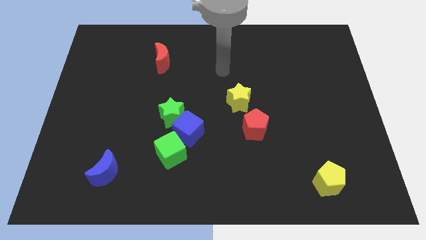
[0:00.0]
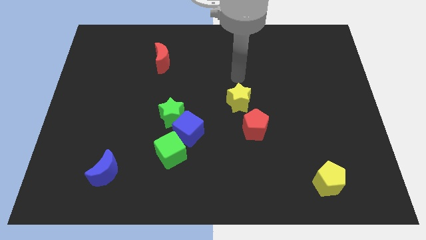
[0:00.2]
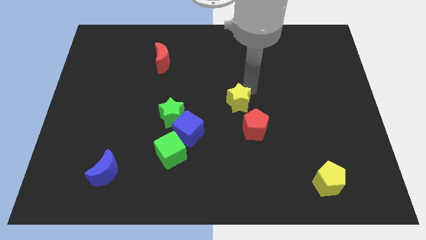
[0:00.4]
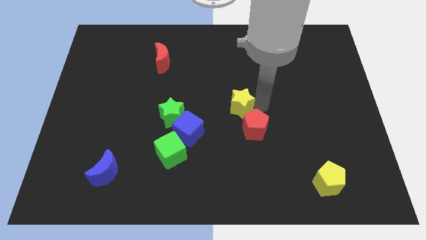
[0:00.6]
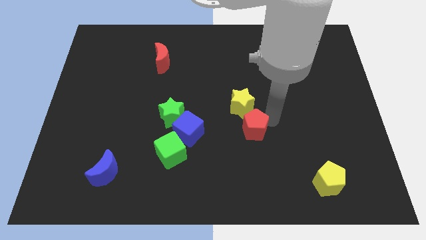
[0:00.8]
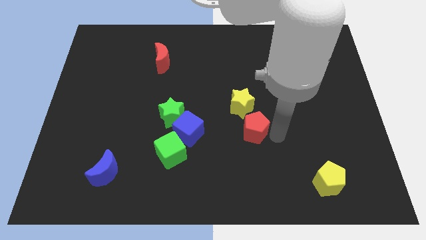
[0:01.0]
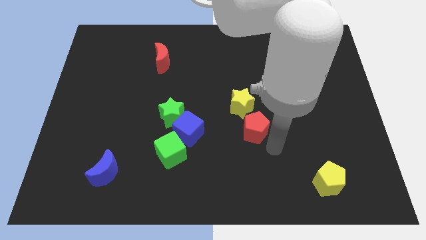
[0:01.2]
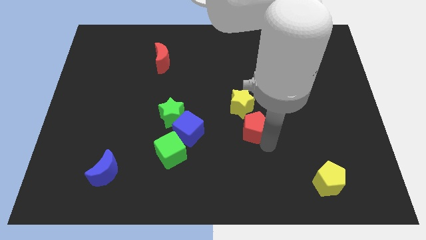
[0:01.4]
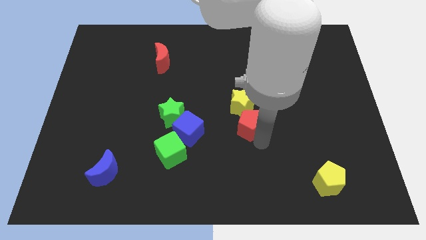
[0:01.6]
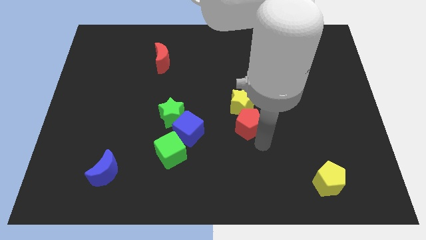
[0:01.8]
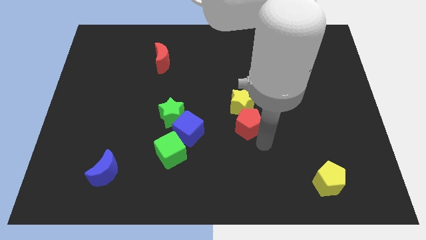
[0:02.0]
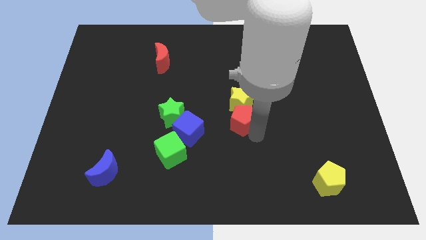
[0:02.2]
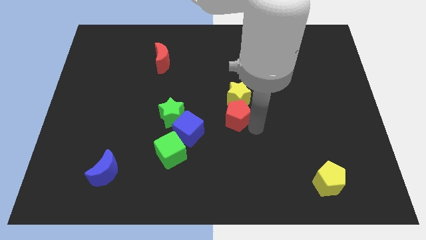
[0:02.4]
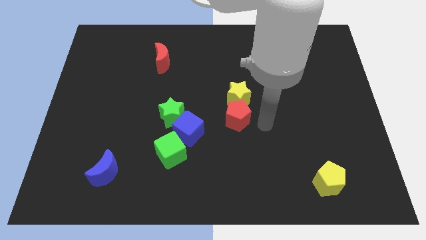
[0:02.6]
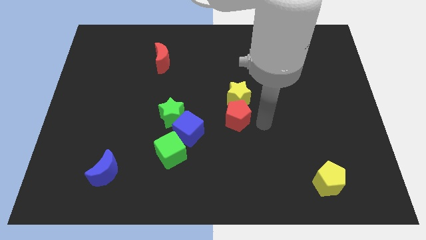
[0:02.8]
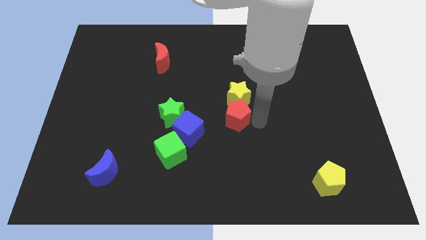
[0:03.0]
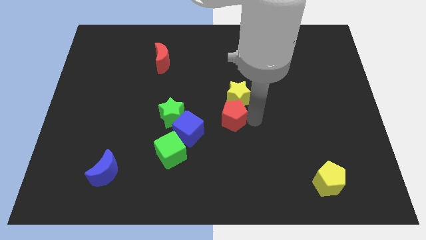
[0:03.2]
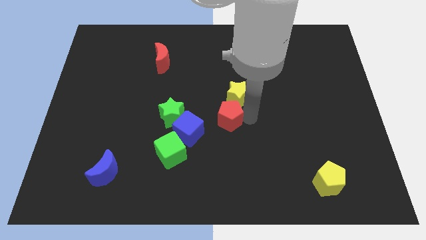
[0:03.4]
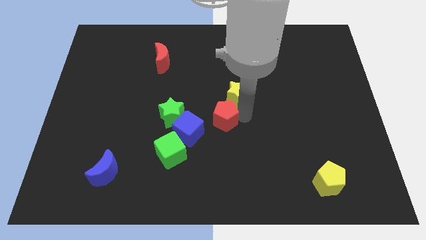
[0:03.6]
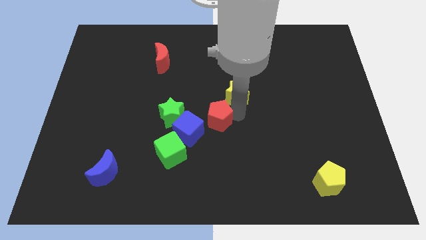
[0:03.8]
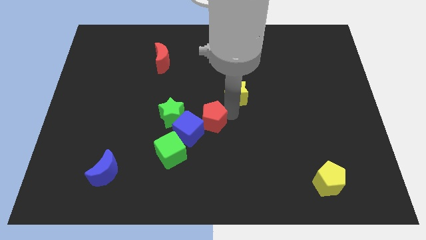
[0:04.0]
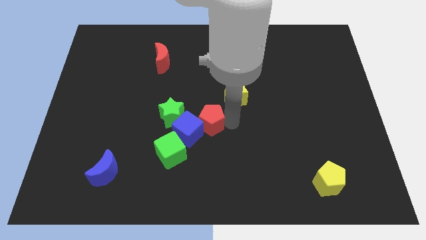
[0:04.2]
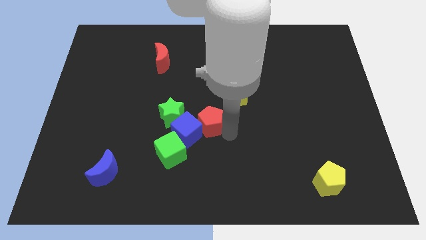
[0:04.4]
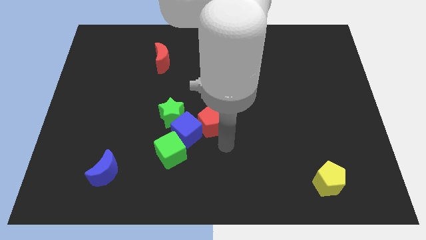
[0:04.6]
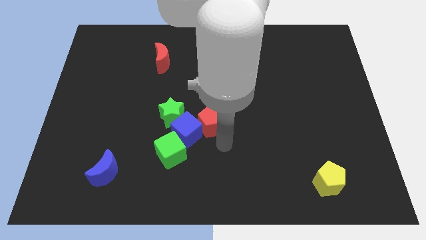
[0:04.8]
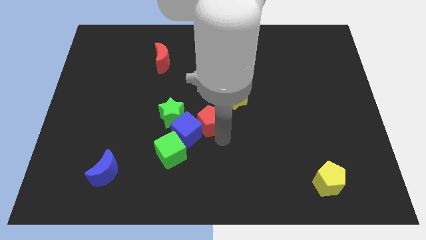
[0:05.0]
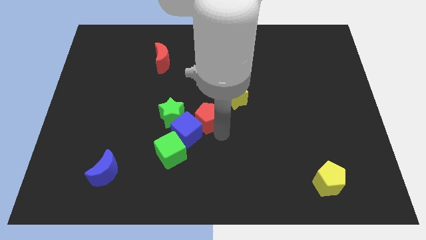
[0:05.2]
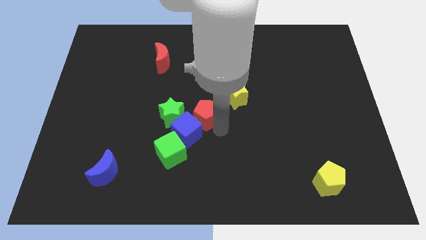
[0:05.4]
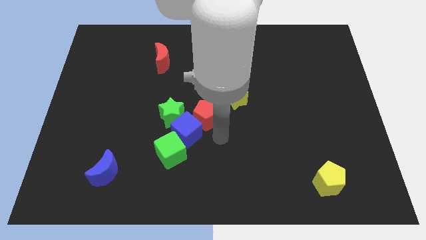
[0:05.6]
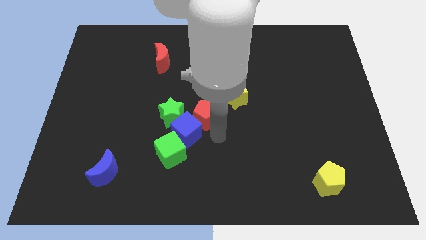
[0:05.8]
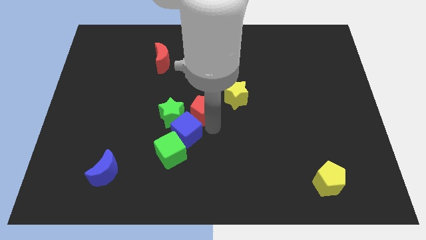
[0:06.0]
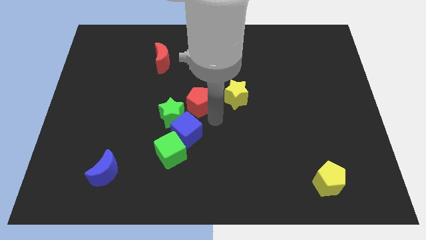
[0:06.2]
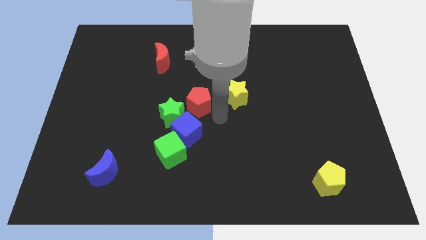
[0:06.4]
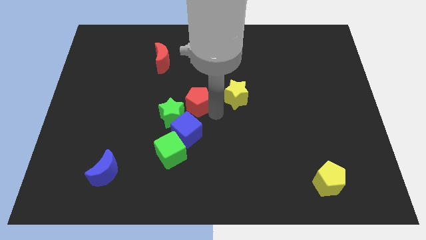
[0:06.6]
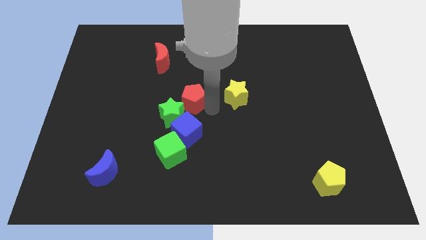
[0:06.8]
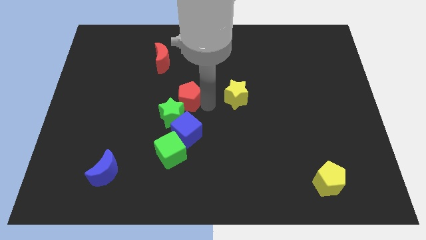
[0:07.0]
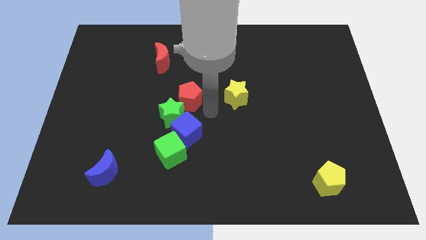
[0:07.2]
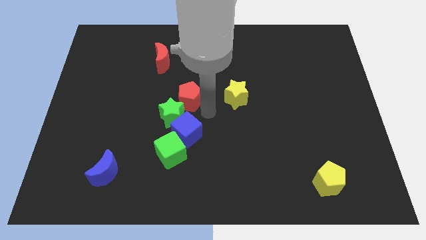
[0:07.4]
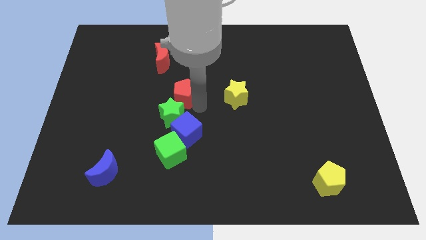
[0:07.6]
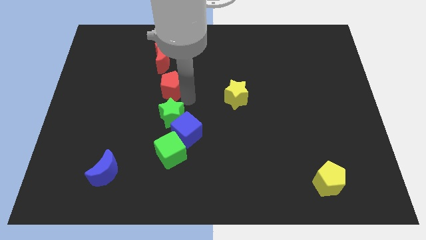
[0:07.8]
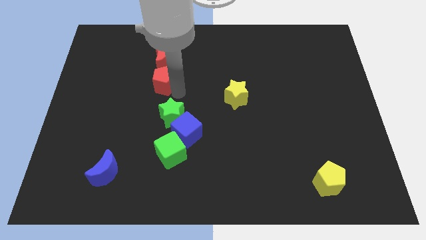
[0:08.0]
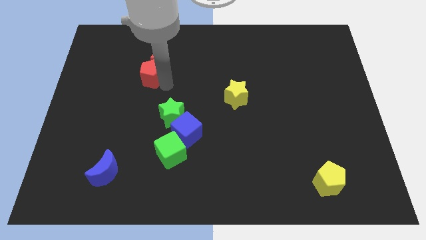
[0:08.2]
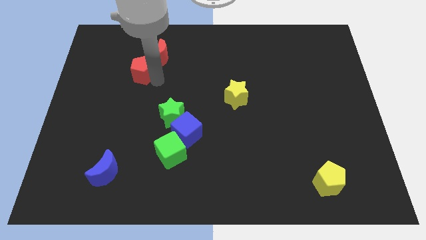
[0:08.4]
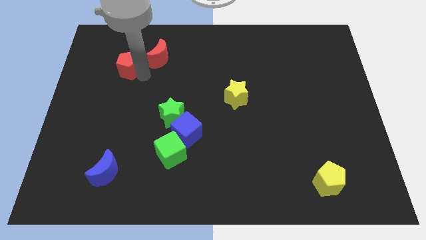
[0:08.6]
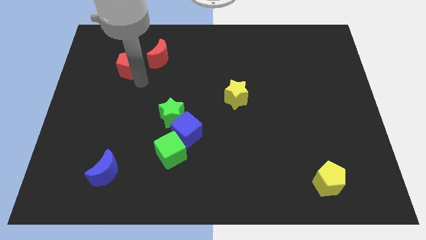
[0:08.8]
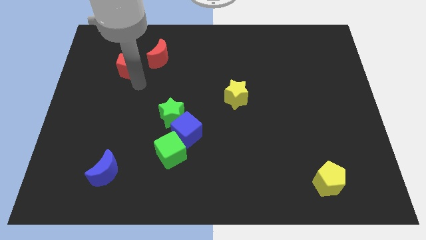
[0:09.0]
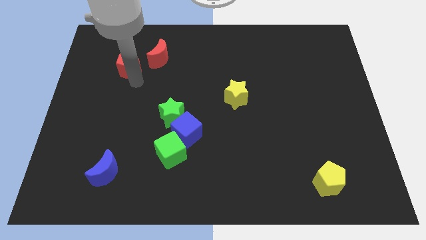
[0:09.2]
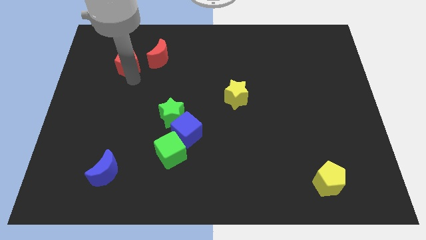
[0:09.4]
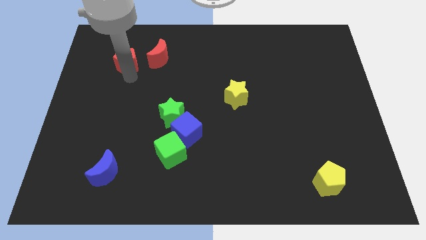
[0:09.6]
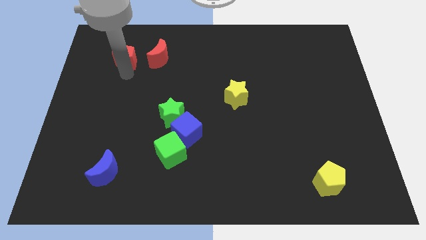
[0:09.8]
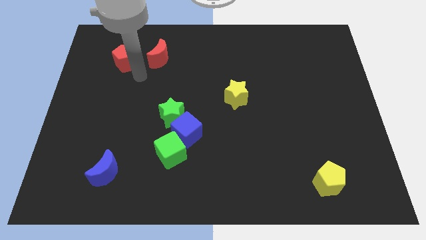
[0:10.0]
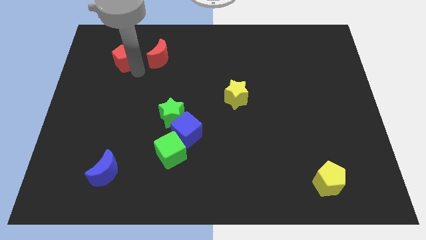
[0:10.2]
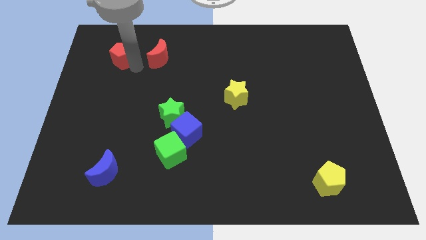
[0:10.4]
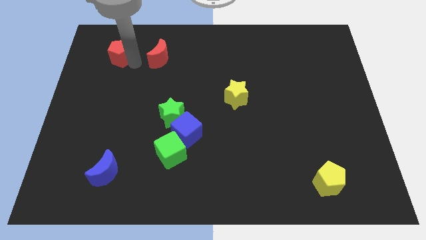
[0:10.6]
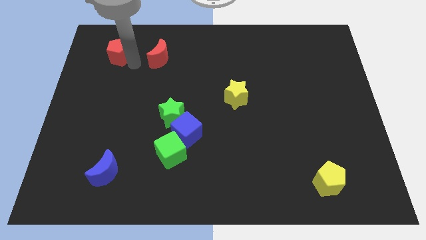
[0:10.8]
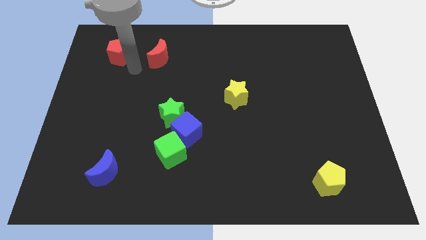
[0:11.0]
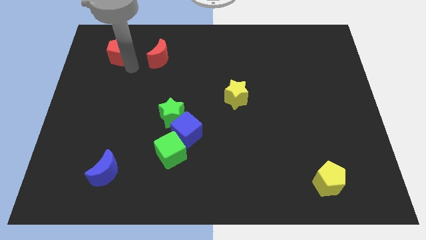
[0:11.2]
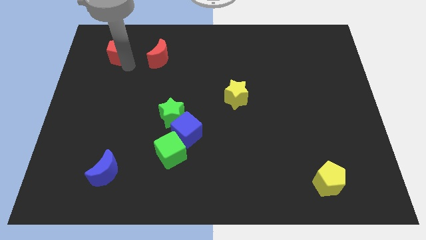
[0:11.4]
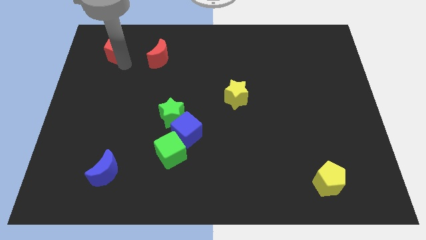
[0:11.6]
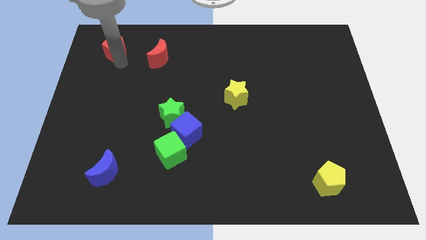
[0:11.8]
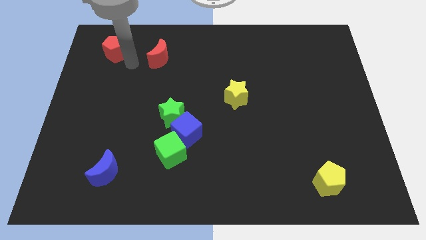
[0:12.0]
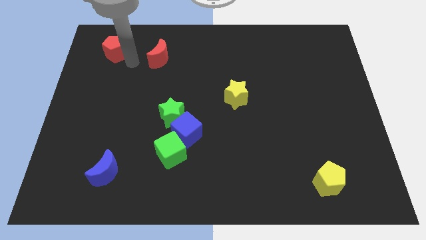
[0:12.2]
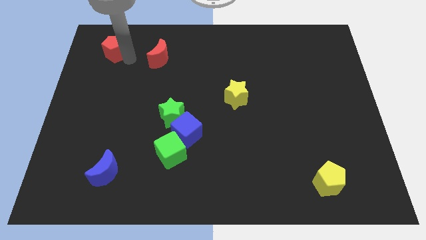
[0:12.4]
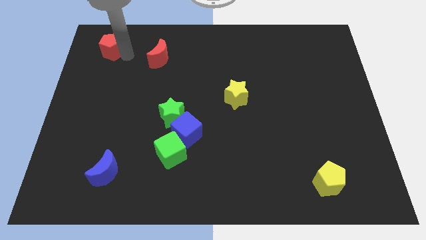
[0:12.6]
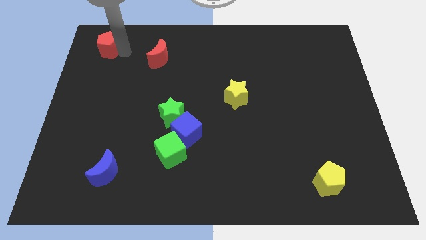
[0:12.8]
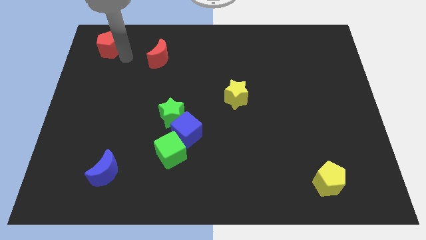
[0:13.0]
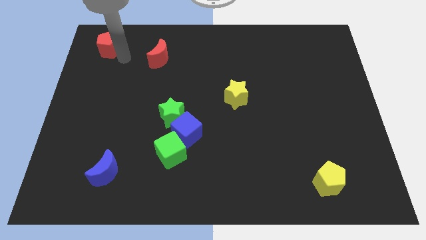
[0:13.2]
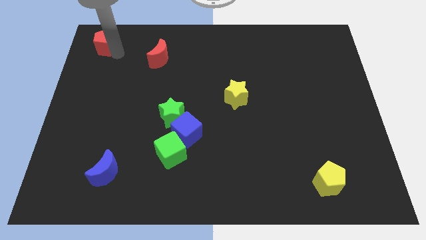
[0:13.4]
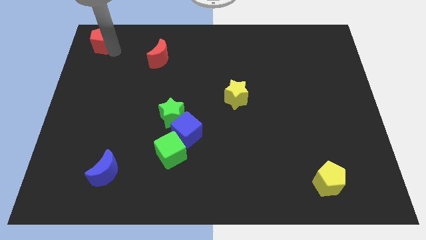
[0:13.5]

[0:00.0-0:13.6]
put the red pentagon to the top left corner
